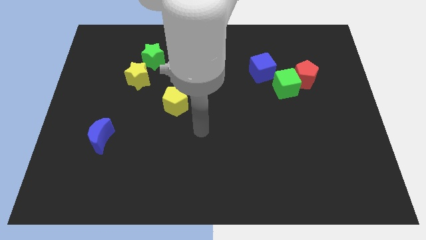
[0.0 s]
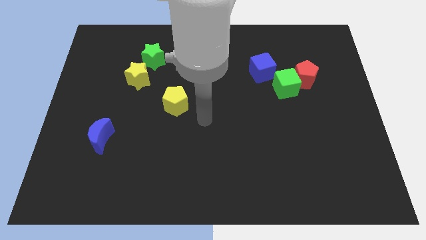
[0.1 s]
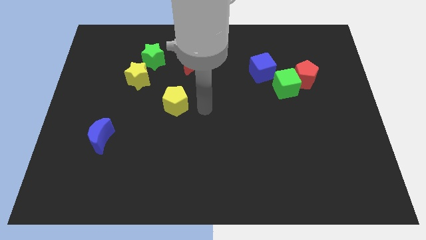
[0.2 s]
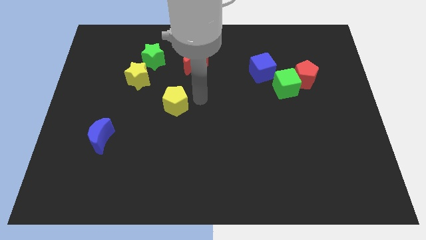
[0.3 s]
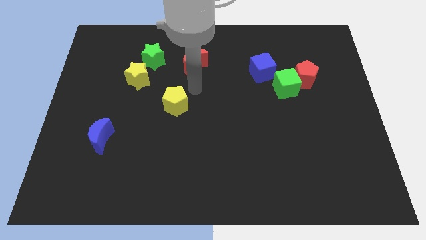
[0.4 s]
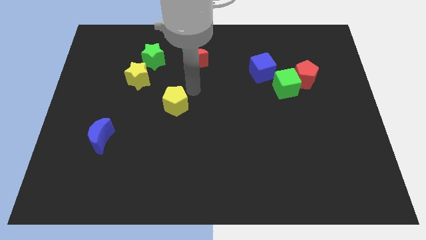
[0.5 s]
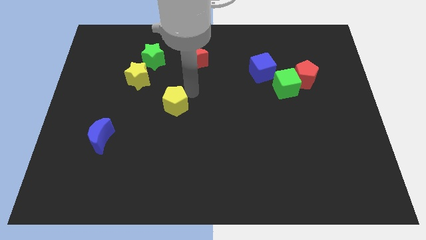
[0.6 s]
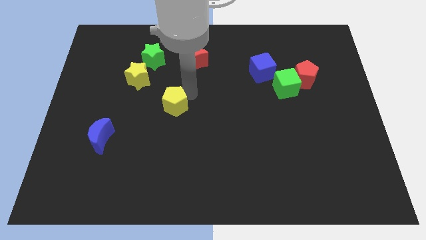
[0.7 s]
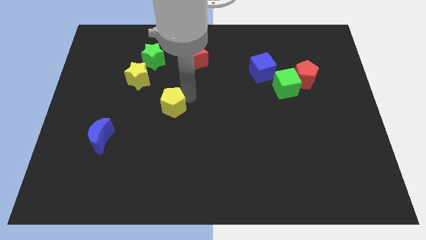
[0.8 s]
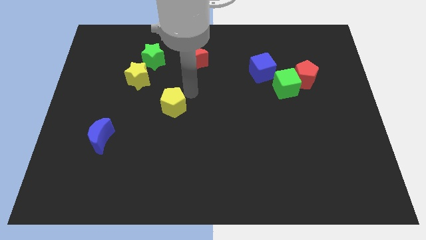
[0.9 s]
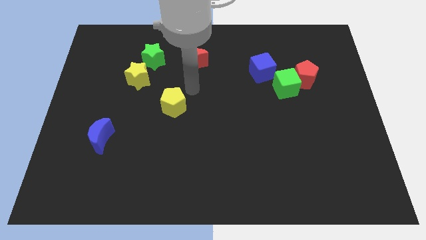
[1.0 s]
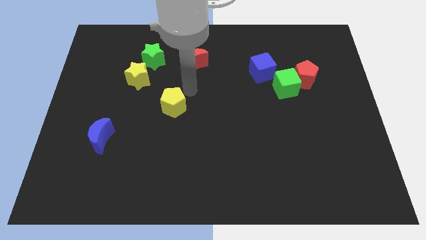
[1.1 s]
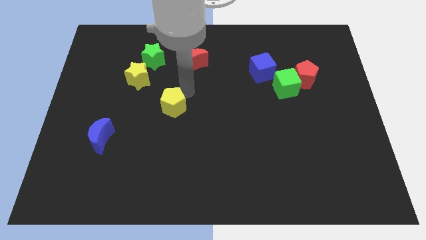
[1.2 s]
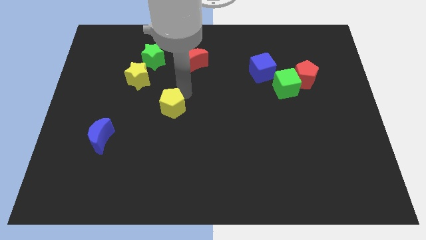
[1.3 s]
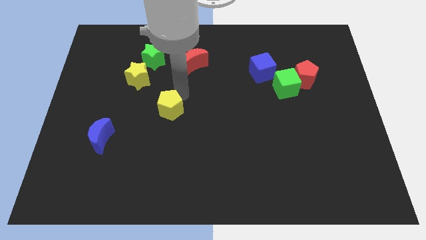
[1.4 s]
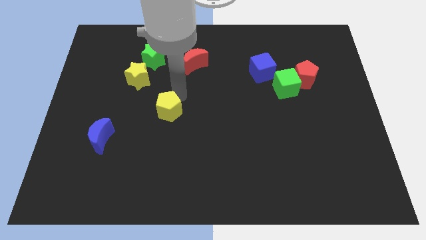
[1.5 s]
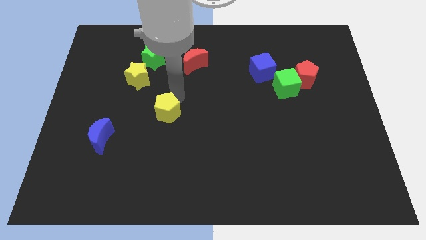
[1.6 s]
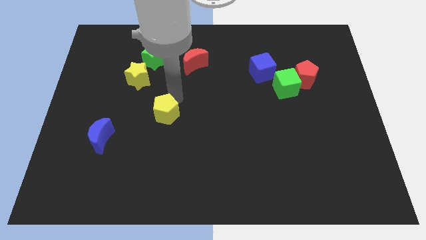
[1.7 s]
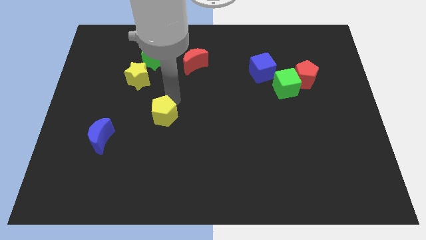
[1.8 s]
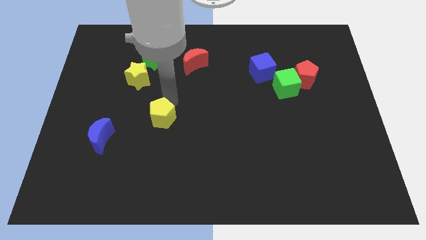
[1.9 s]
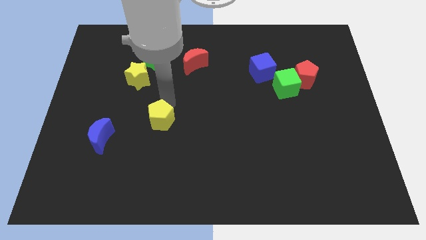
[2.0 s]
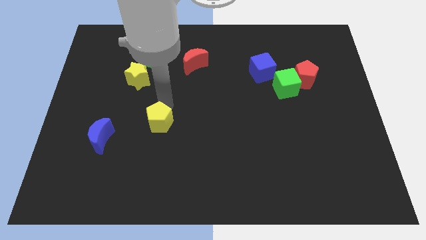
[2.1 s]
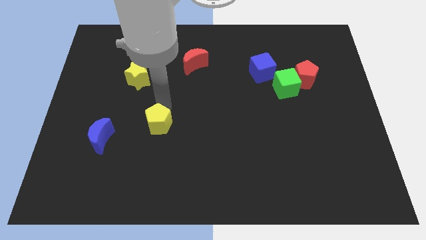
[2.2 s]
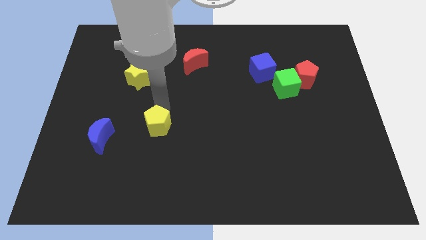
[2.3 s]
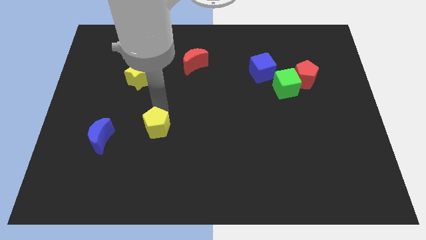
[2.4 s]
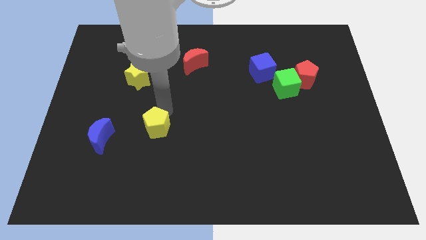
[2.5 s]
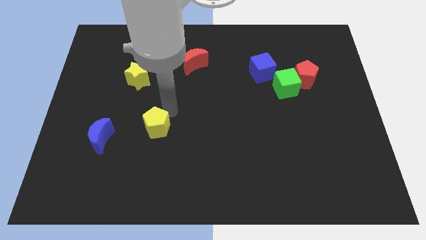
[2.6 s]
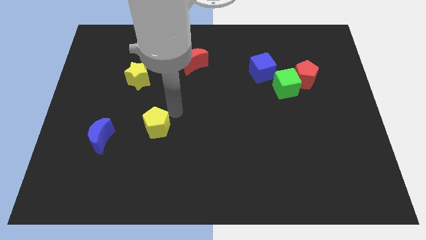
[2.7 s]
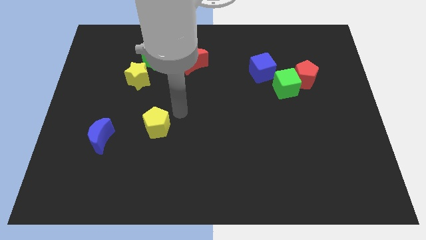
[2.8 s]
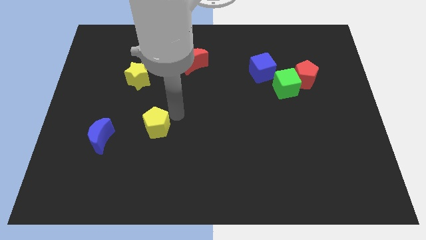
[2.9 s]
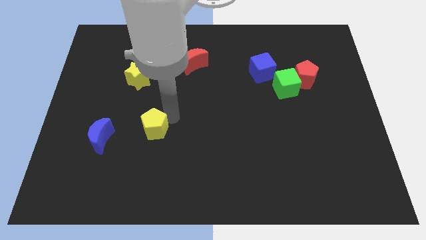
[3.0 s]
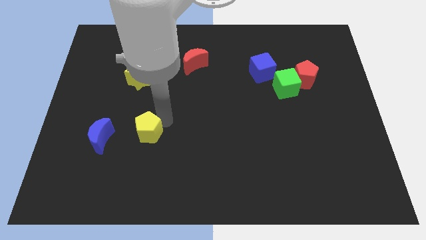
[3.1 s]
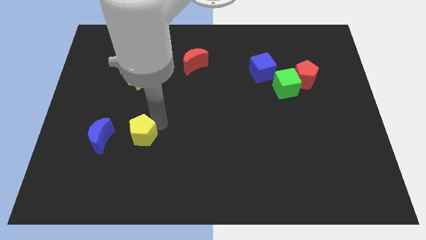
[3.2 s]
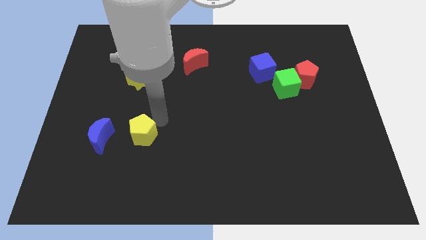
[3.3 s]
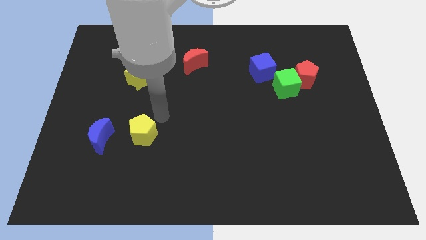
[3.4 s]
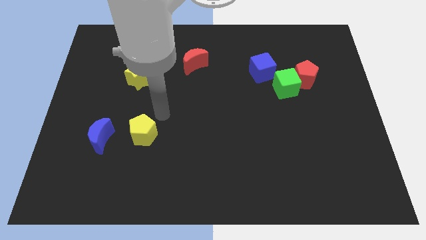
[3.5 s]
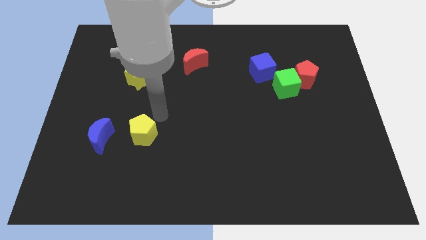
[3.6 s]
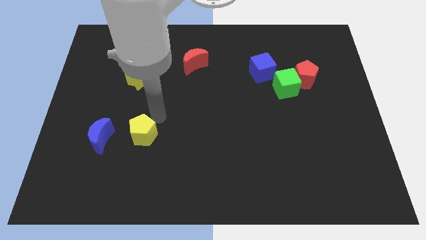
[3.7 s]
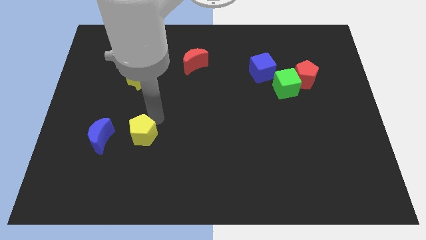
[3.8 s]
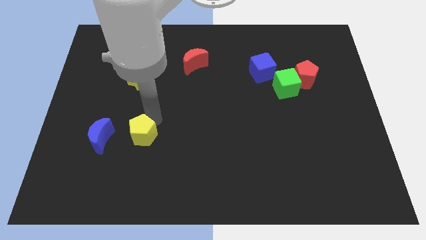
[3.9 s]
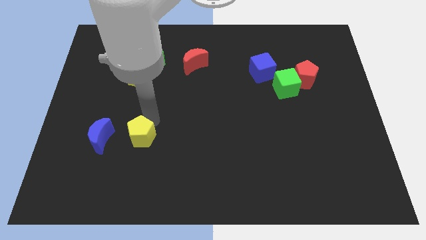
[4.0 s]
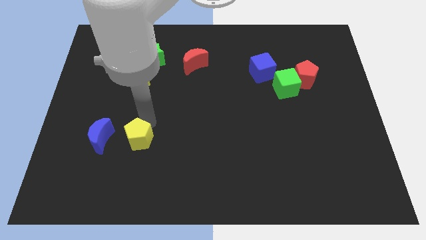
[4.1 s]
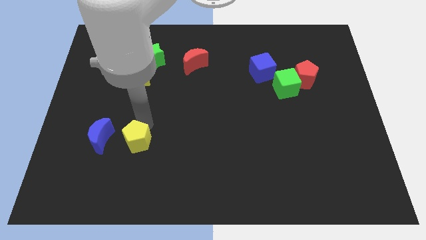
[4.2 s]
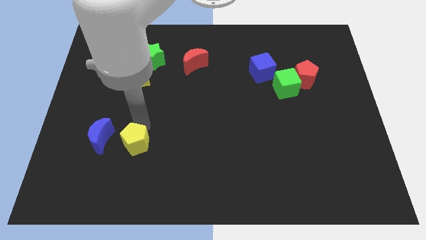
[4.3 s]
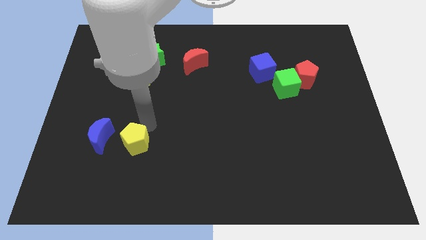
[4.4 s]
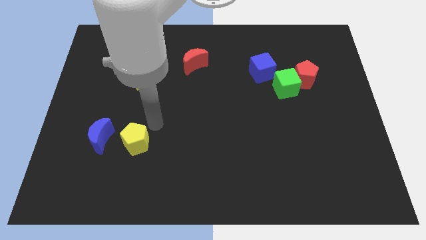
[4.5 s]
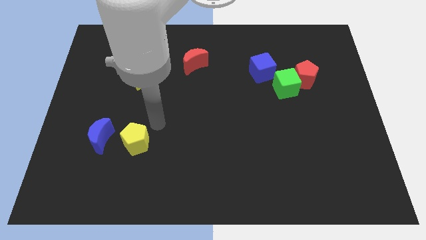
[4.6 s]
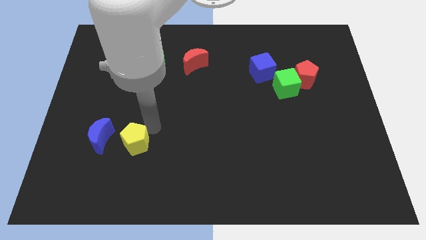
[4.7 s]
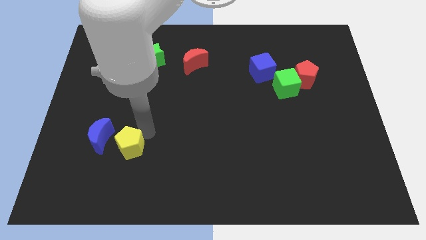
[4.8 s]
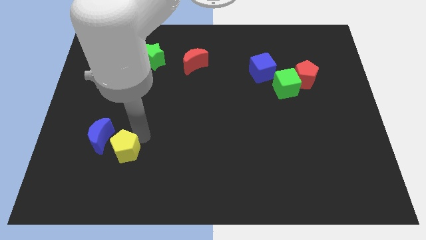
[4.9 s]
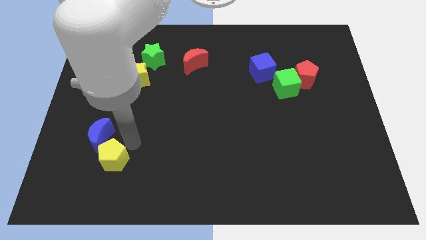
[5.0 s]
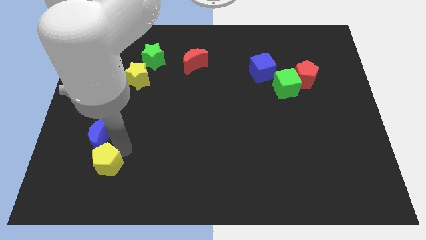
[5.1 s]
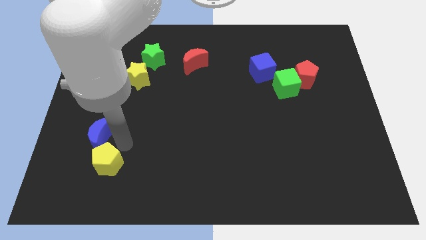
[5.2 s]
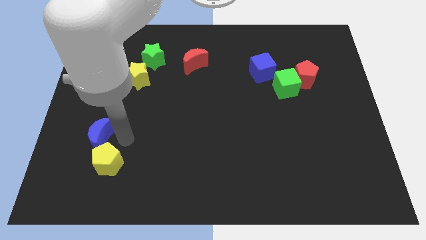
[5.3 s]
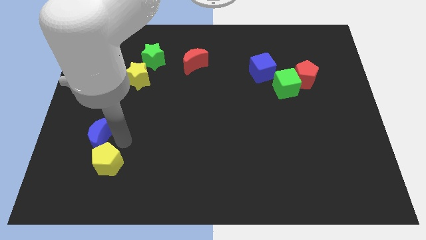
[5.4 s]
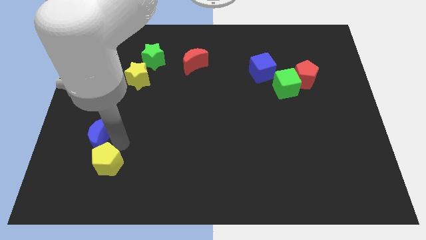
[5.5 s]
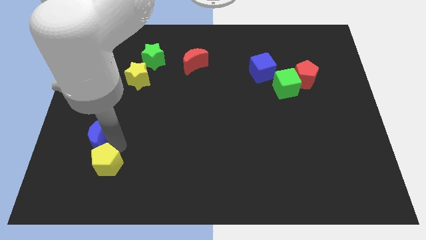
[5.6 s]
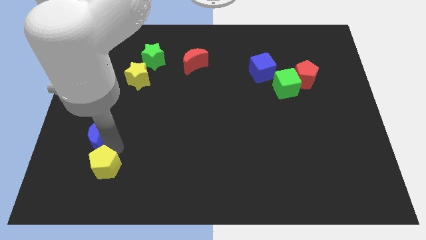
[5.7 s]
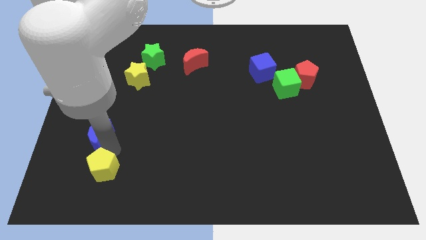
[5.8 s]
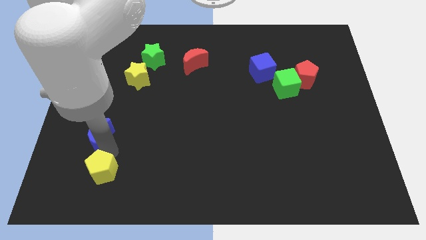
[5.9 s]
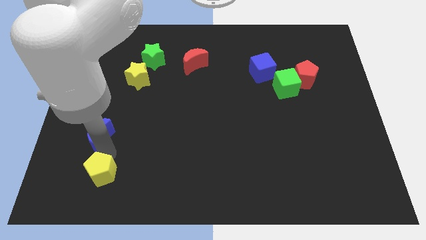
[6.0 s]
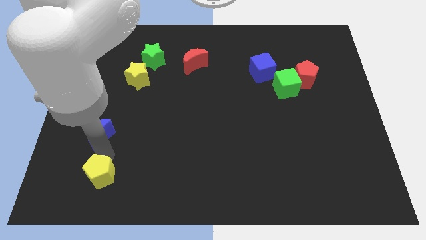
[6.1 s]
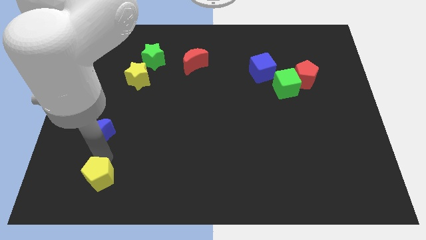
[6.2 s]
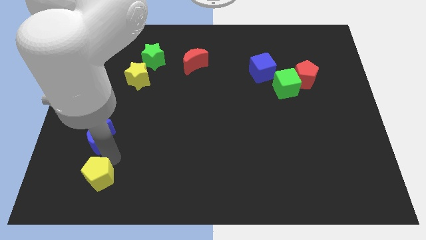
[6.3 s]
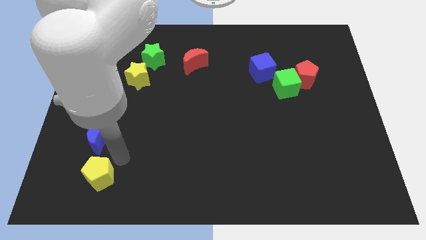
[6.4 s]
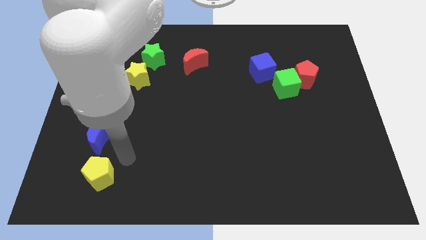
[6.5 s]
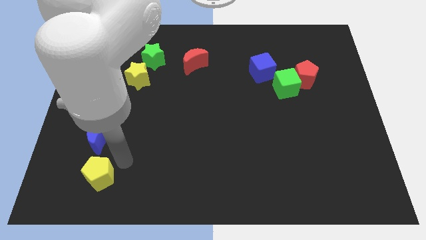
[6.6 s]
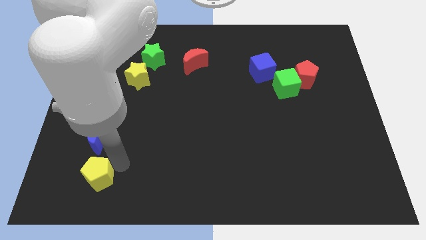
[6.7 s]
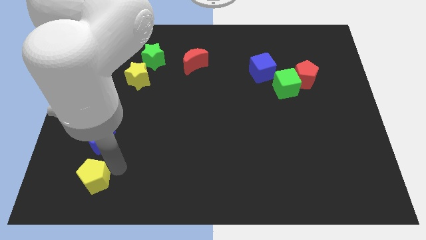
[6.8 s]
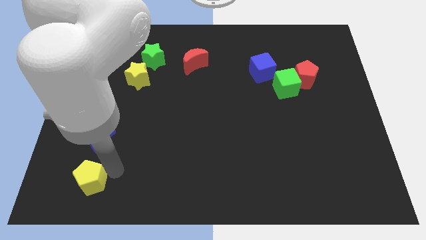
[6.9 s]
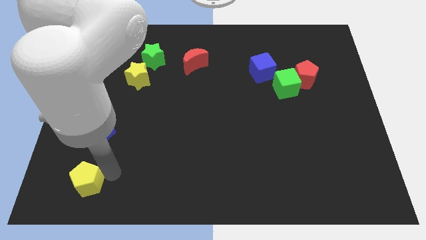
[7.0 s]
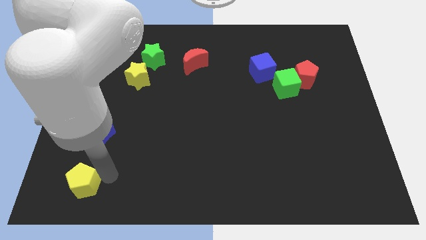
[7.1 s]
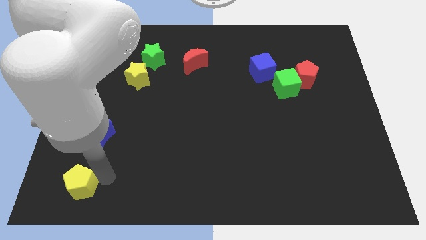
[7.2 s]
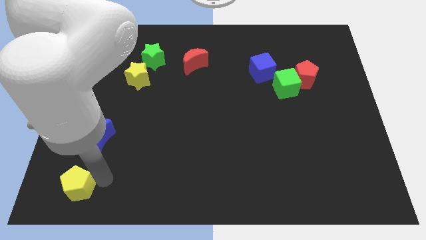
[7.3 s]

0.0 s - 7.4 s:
move the yellow pentagon to the lower left corner
